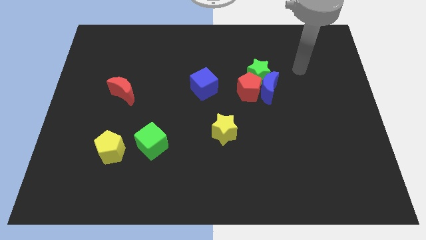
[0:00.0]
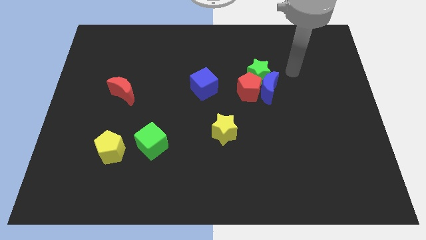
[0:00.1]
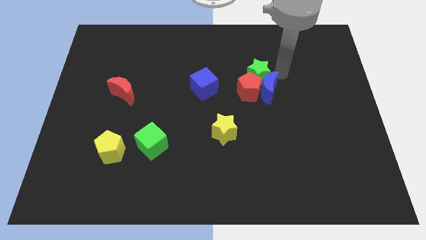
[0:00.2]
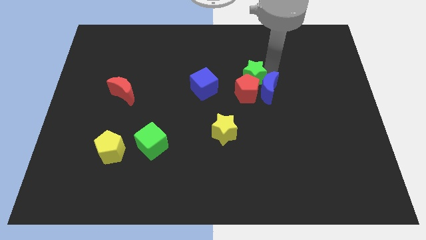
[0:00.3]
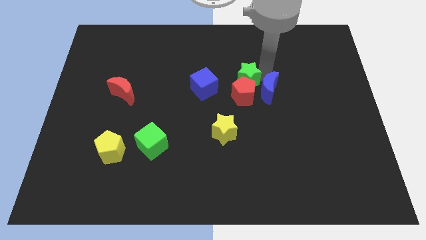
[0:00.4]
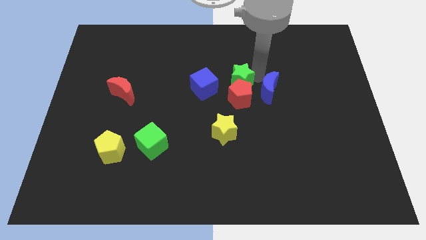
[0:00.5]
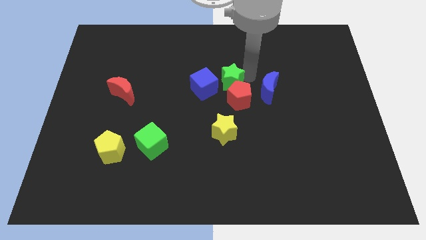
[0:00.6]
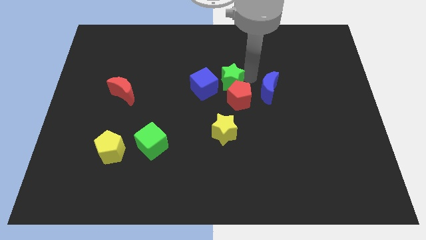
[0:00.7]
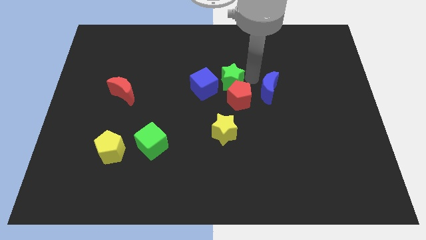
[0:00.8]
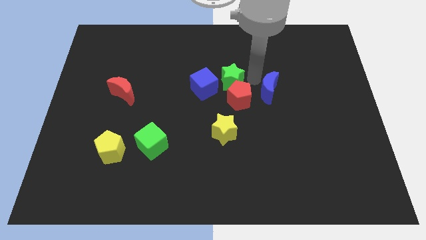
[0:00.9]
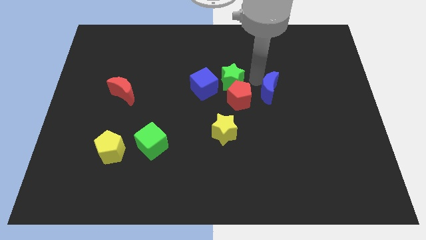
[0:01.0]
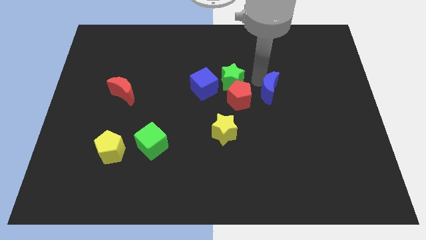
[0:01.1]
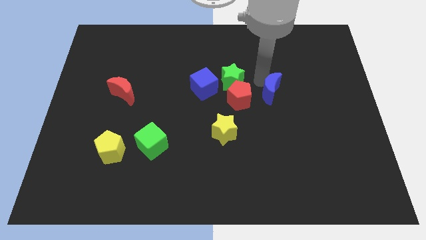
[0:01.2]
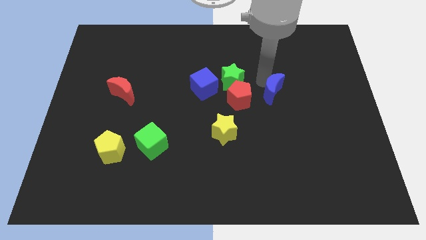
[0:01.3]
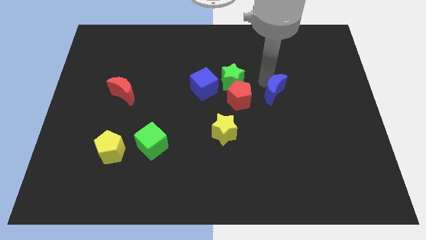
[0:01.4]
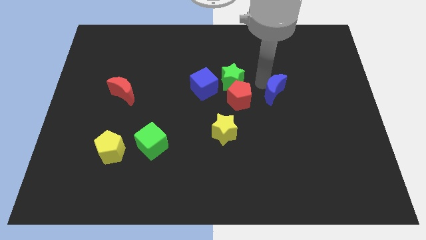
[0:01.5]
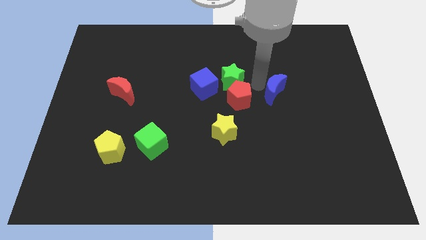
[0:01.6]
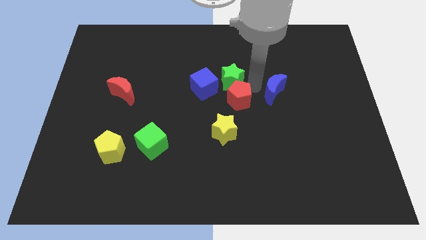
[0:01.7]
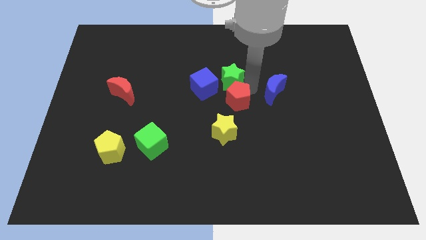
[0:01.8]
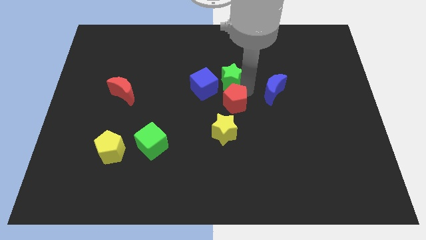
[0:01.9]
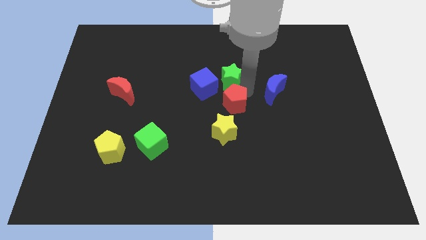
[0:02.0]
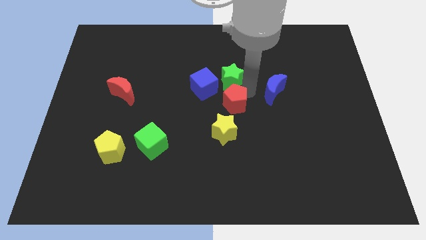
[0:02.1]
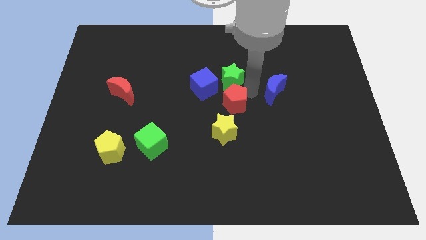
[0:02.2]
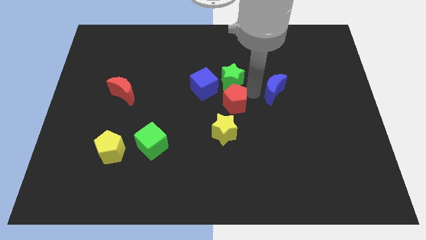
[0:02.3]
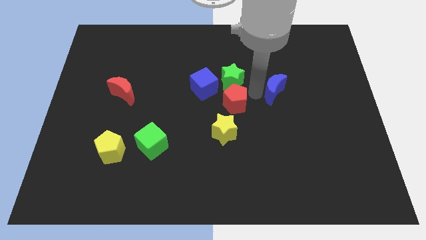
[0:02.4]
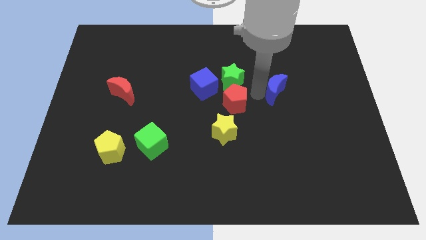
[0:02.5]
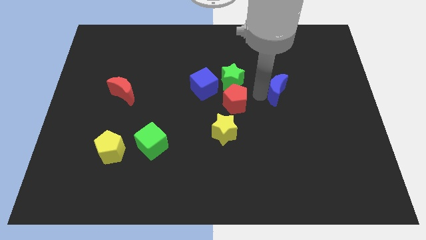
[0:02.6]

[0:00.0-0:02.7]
pull the blue moon apart from the red pentagon and green star

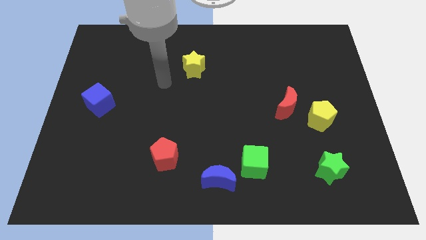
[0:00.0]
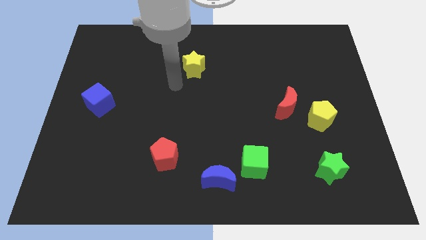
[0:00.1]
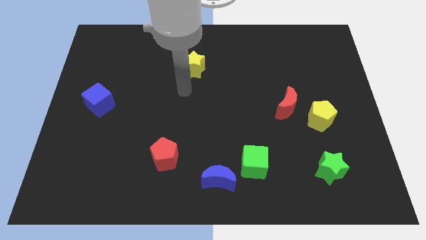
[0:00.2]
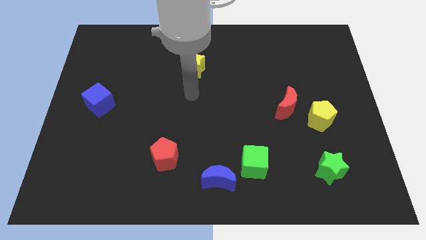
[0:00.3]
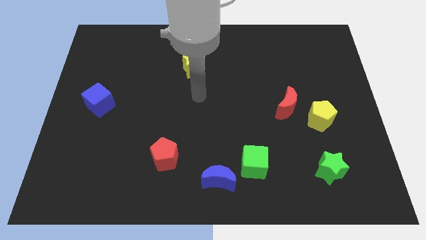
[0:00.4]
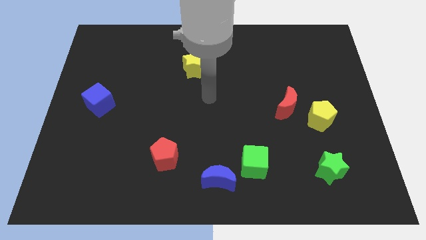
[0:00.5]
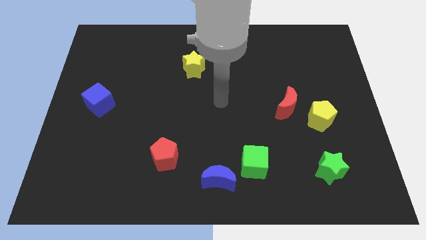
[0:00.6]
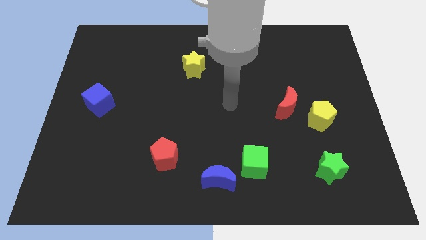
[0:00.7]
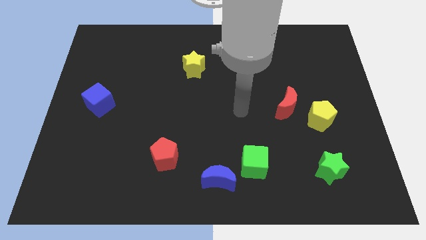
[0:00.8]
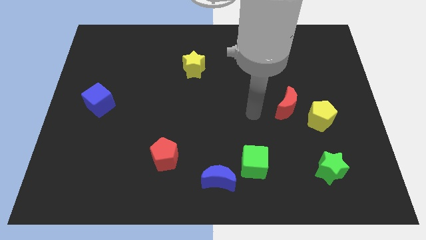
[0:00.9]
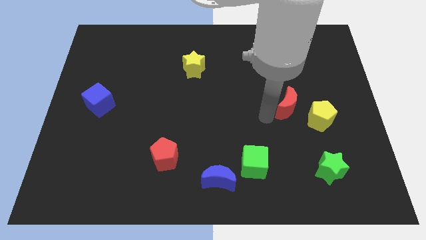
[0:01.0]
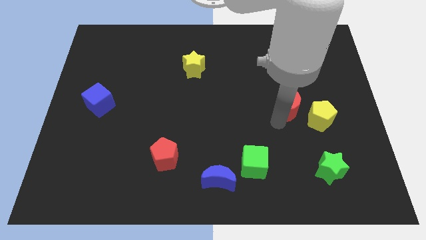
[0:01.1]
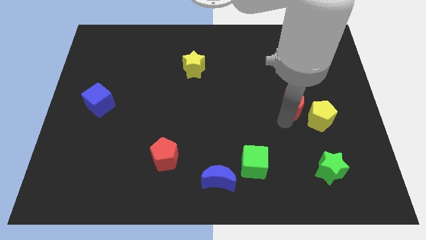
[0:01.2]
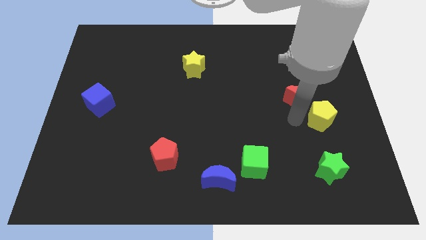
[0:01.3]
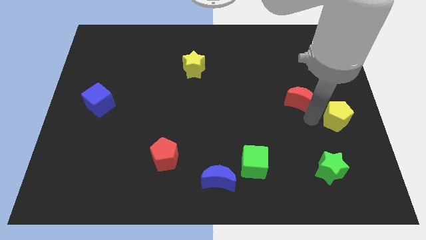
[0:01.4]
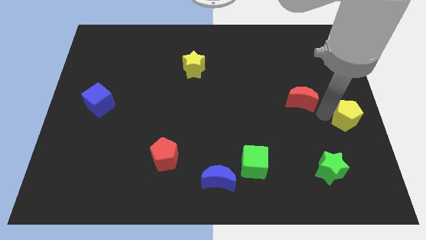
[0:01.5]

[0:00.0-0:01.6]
pull the red moon apart from the yellow pentagon

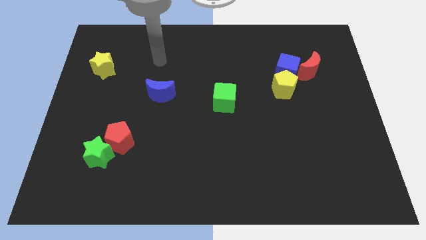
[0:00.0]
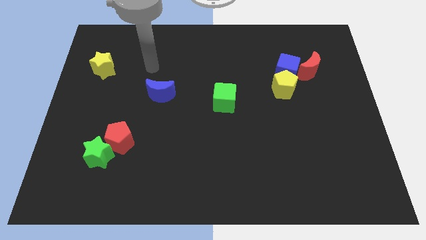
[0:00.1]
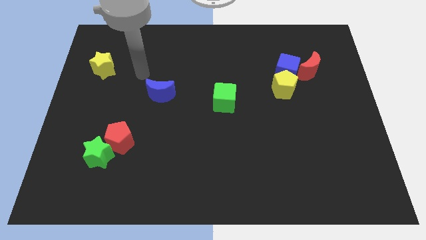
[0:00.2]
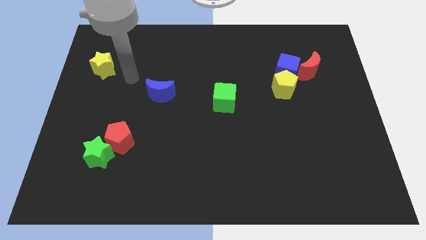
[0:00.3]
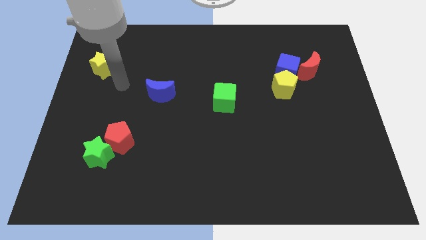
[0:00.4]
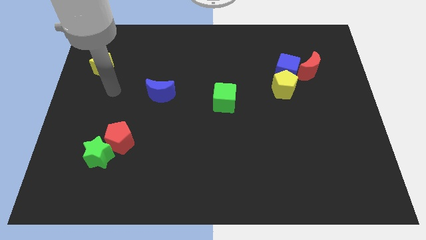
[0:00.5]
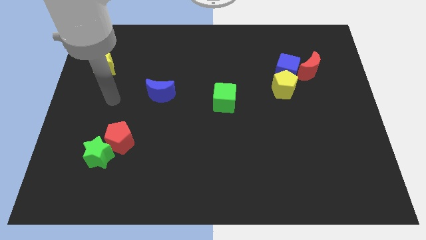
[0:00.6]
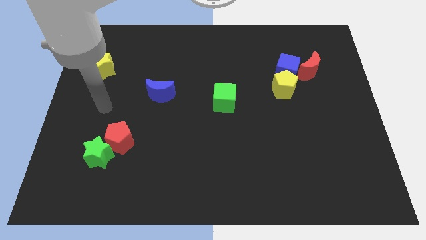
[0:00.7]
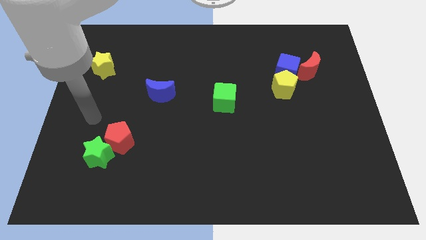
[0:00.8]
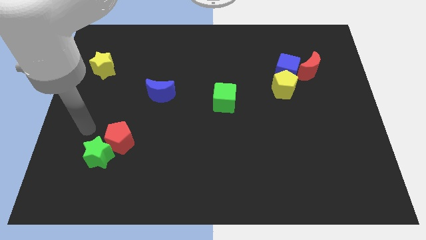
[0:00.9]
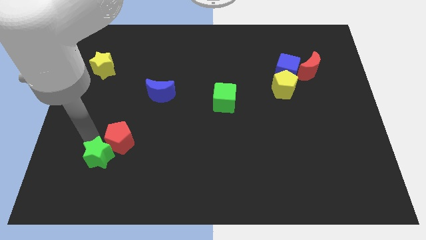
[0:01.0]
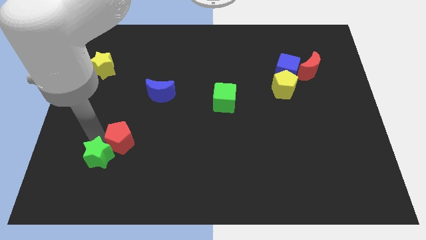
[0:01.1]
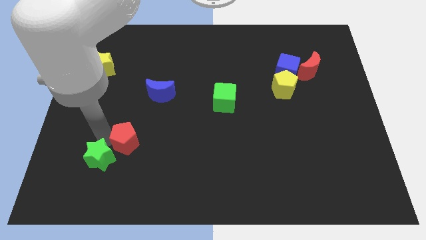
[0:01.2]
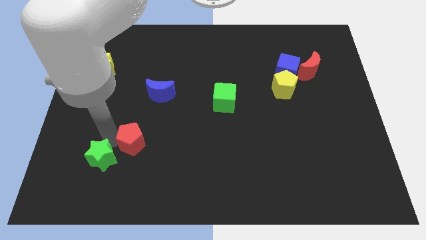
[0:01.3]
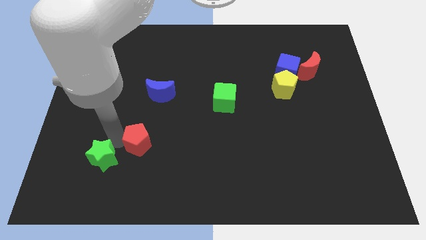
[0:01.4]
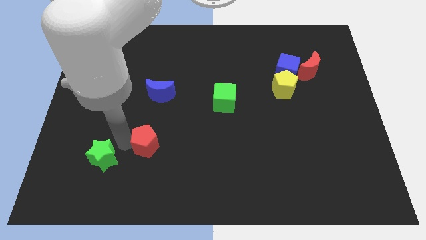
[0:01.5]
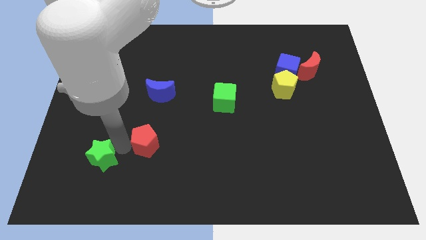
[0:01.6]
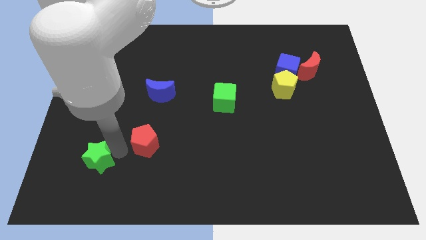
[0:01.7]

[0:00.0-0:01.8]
separate the red pentagon from the green star

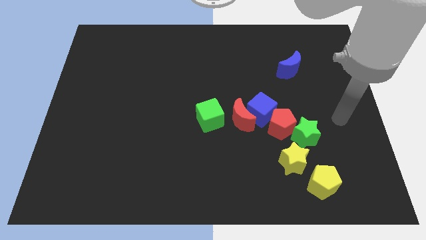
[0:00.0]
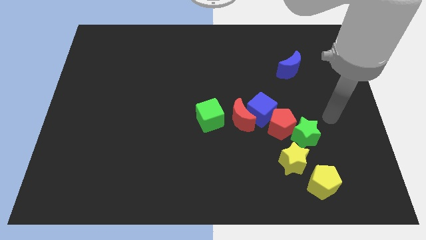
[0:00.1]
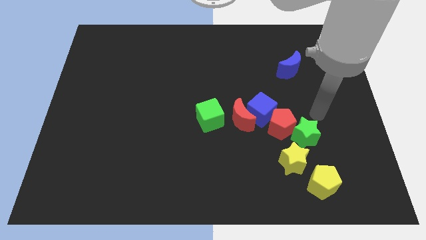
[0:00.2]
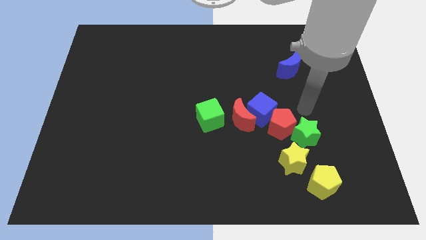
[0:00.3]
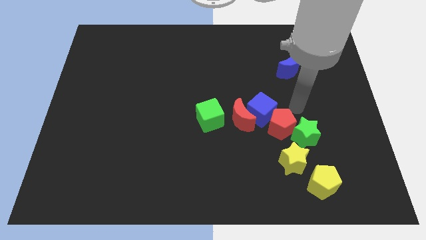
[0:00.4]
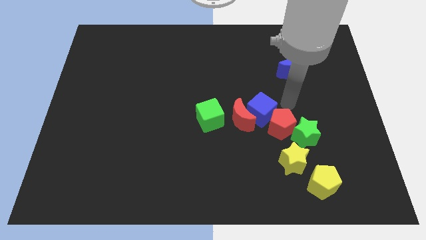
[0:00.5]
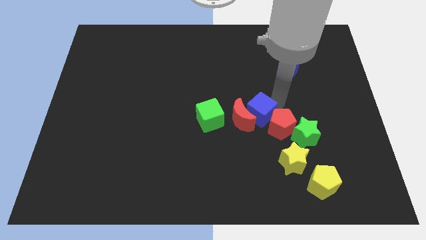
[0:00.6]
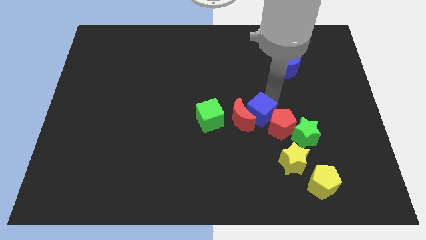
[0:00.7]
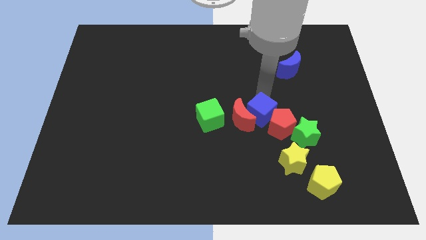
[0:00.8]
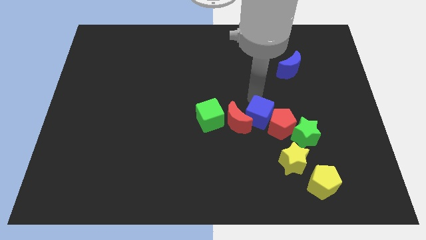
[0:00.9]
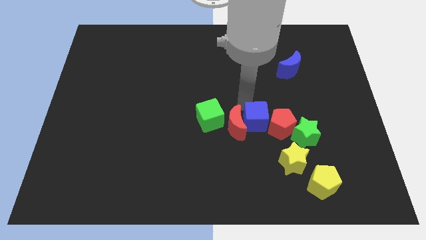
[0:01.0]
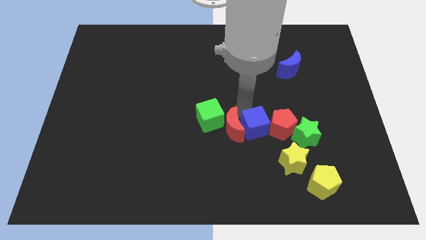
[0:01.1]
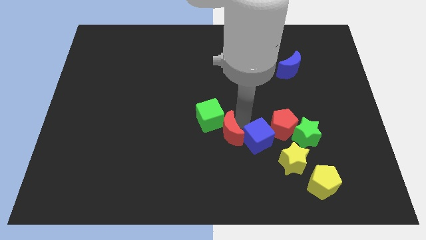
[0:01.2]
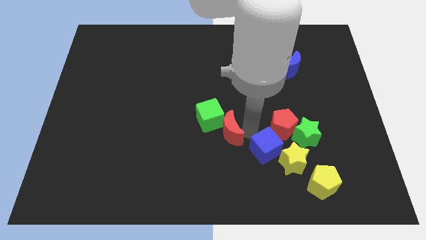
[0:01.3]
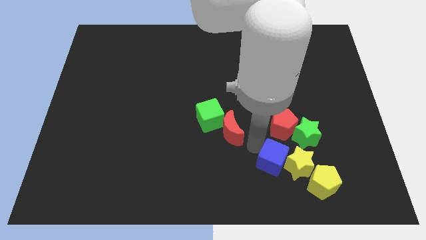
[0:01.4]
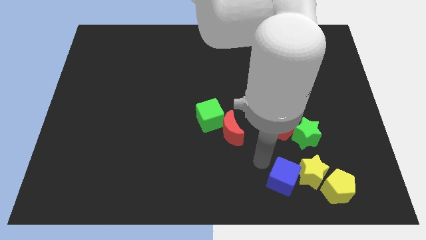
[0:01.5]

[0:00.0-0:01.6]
separate the blue cube from the red moon and red pentagon

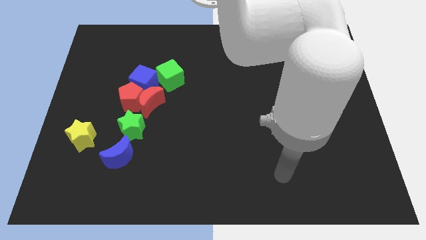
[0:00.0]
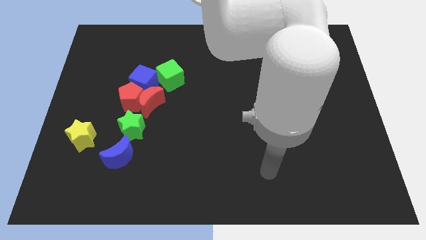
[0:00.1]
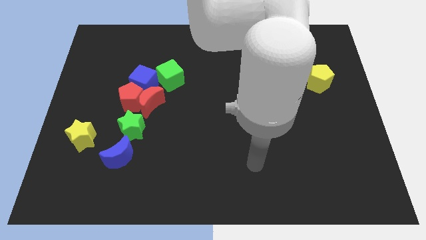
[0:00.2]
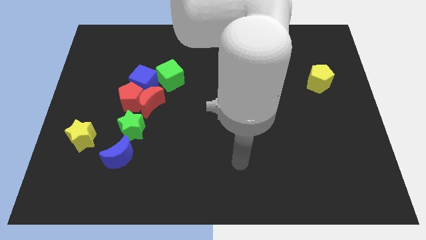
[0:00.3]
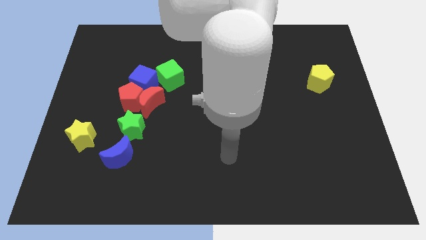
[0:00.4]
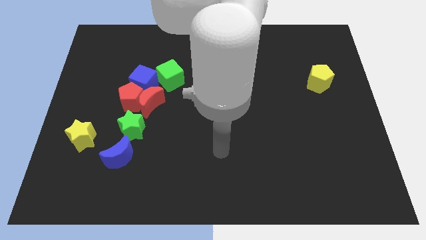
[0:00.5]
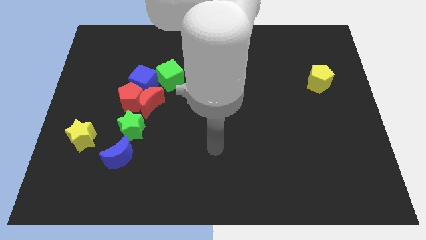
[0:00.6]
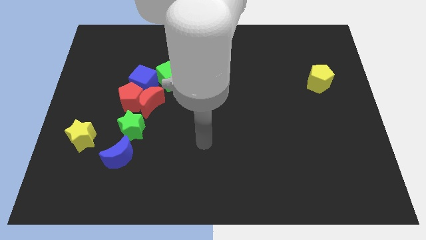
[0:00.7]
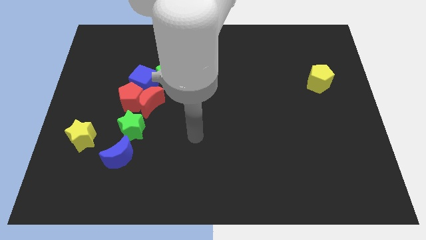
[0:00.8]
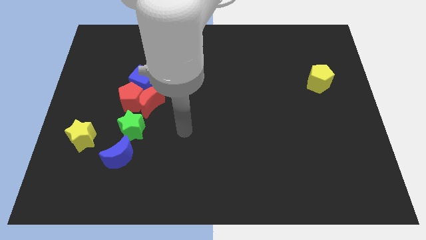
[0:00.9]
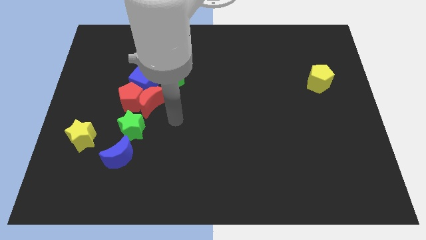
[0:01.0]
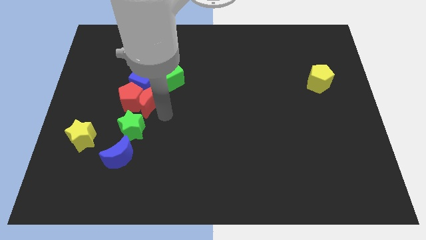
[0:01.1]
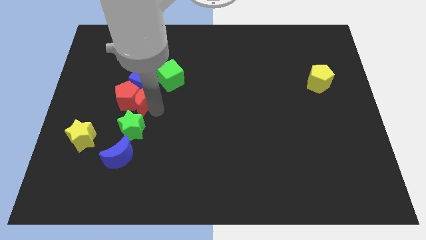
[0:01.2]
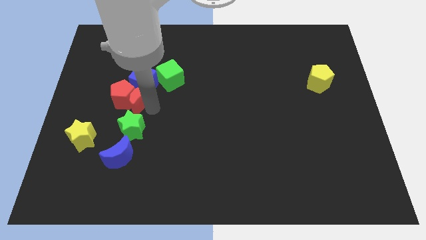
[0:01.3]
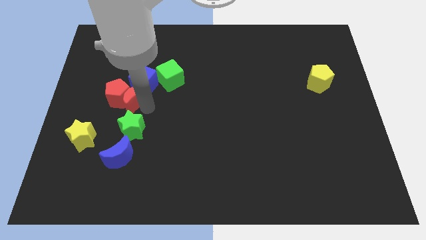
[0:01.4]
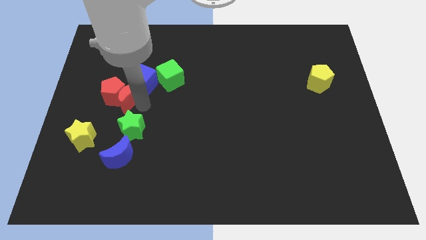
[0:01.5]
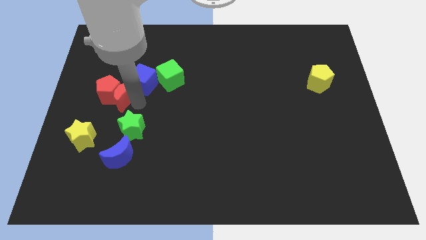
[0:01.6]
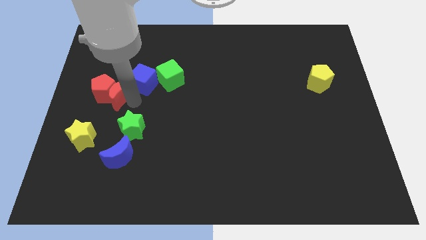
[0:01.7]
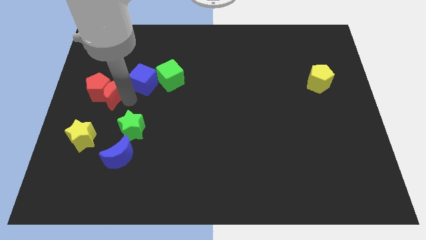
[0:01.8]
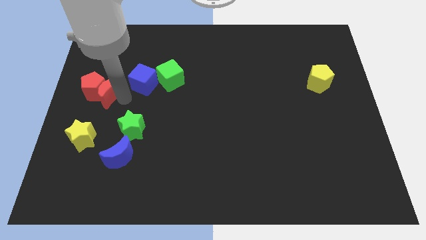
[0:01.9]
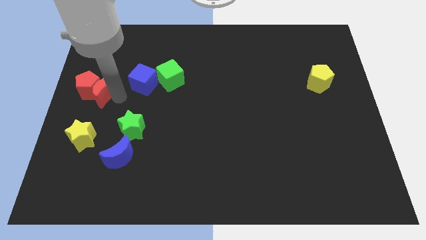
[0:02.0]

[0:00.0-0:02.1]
pull the red pentagon apart from the red moon, blue cube, and green star
